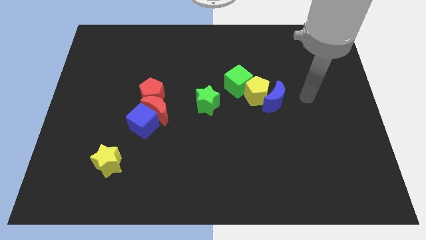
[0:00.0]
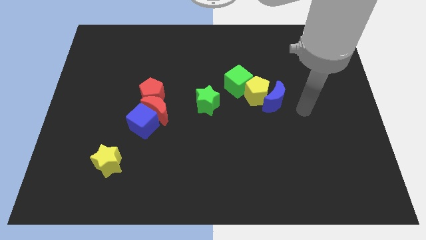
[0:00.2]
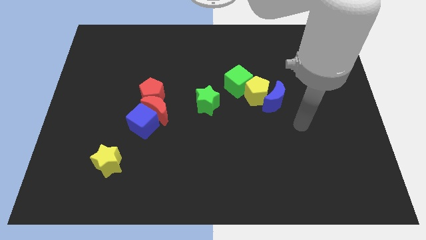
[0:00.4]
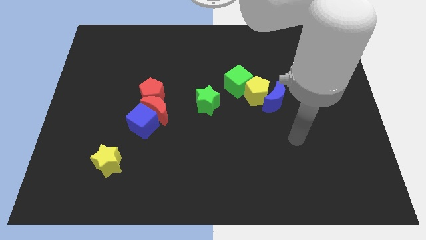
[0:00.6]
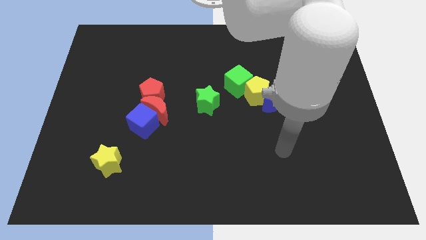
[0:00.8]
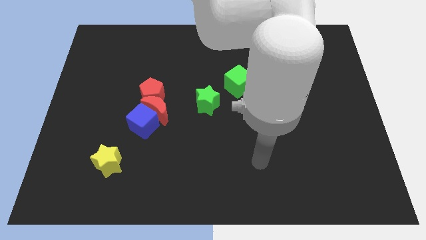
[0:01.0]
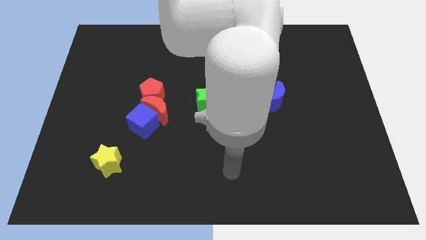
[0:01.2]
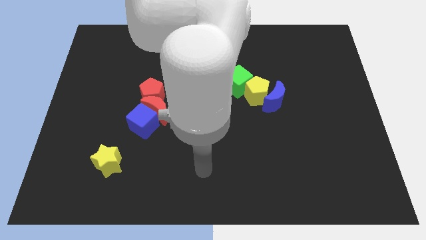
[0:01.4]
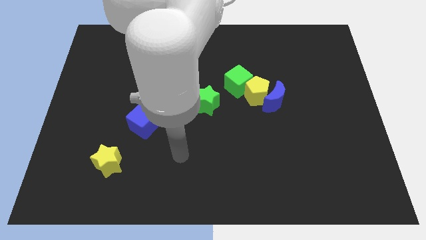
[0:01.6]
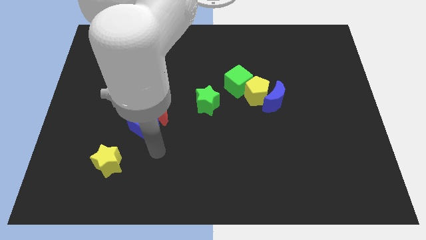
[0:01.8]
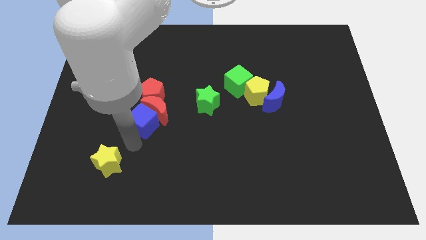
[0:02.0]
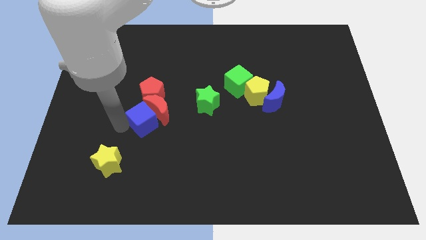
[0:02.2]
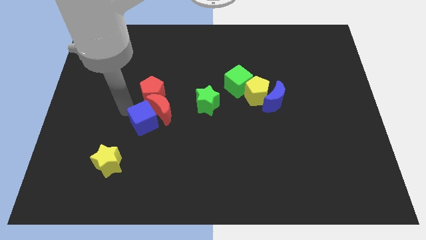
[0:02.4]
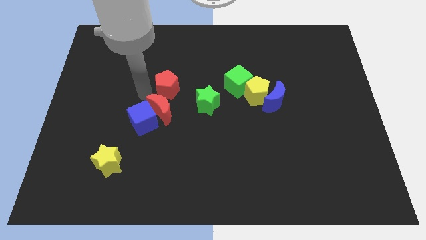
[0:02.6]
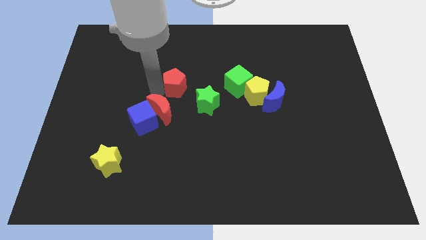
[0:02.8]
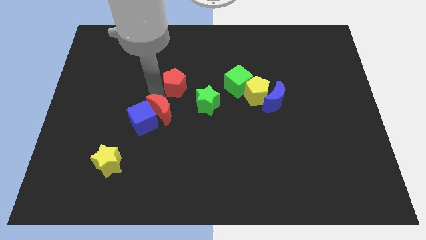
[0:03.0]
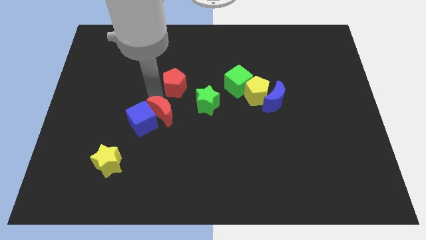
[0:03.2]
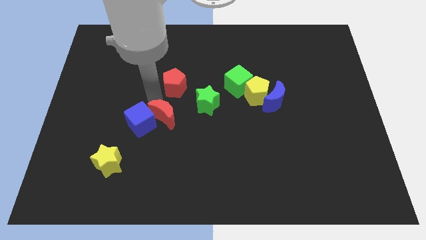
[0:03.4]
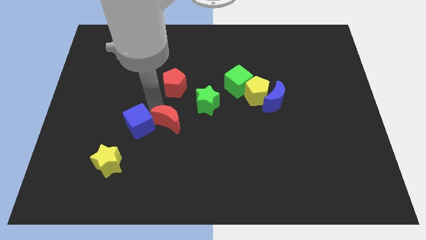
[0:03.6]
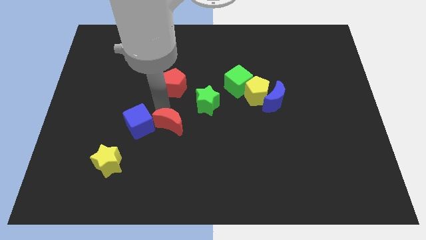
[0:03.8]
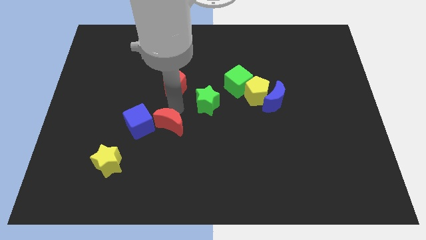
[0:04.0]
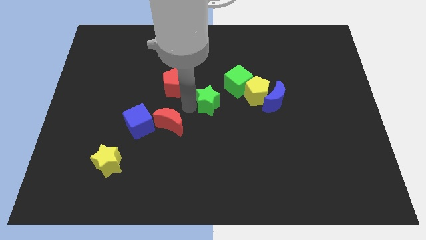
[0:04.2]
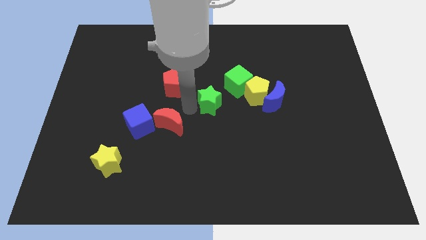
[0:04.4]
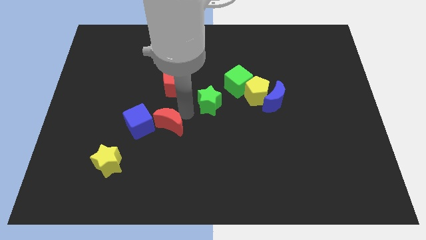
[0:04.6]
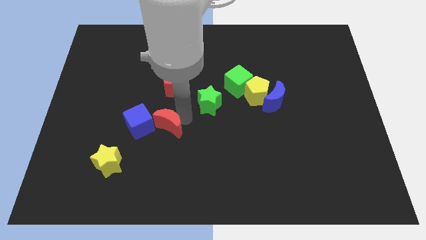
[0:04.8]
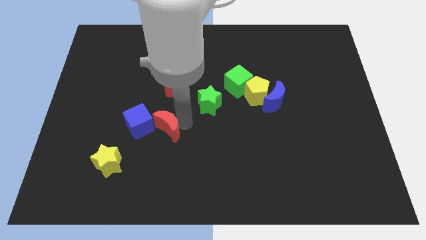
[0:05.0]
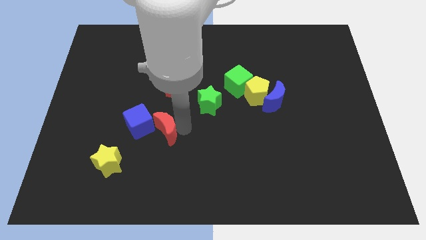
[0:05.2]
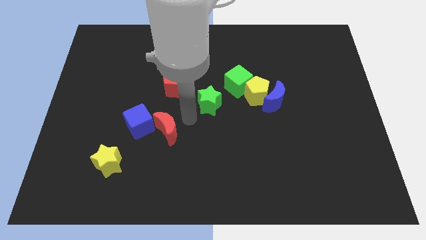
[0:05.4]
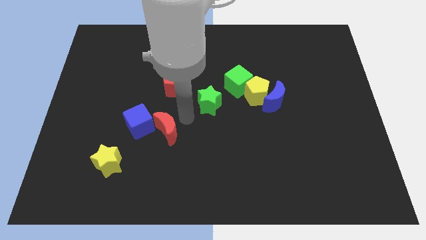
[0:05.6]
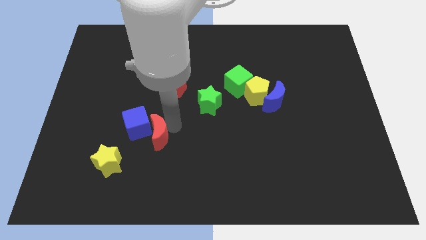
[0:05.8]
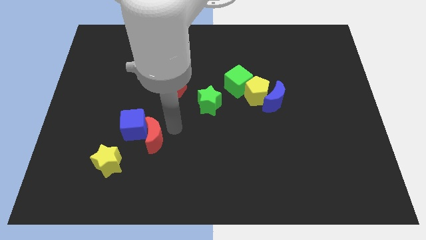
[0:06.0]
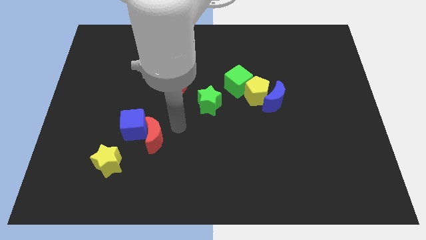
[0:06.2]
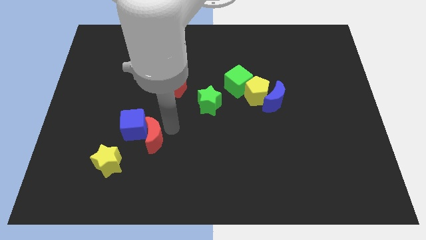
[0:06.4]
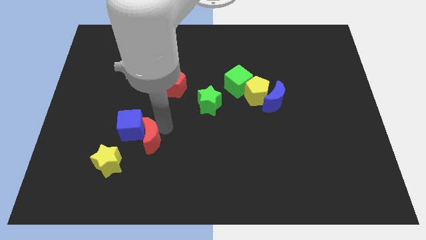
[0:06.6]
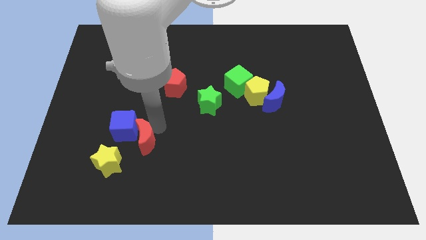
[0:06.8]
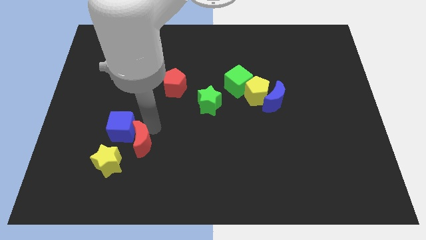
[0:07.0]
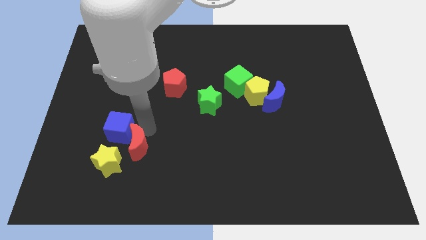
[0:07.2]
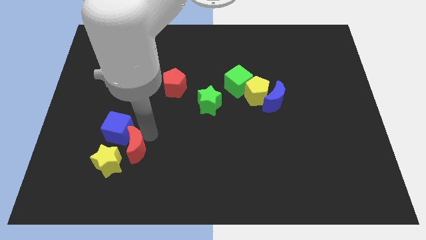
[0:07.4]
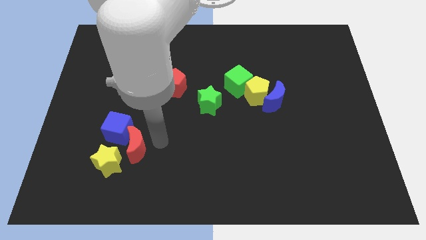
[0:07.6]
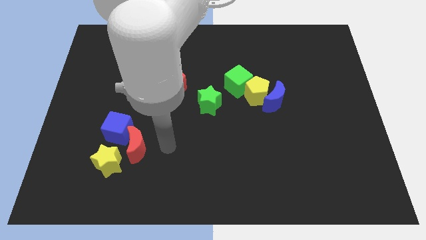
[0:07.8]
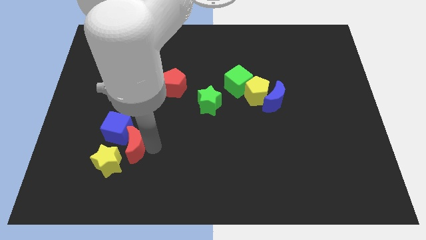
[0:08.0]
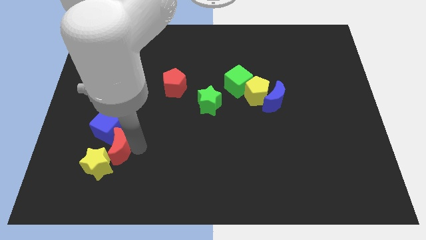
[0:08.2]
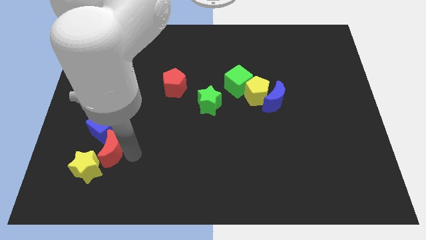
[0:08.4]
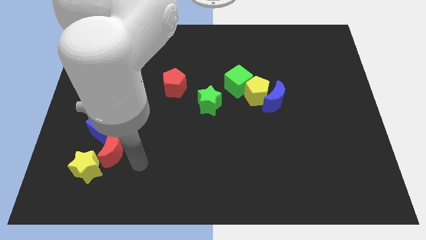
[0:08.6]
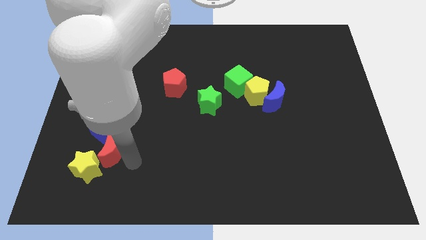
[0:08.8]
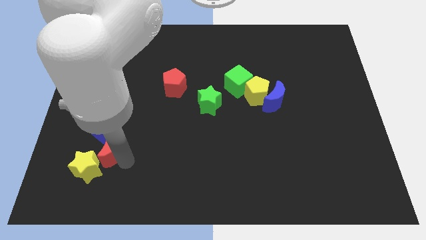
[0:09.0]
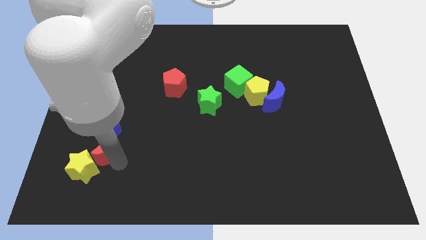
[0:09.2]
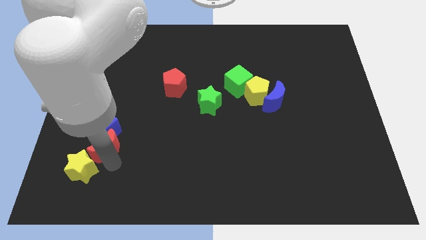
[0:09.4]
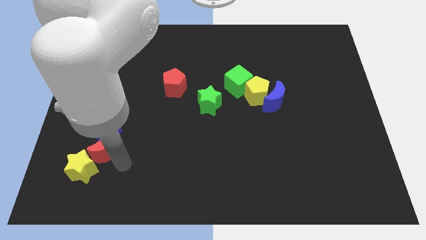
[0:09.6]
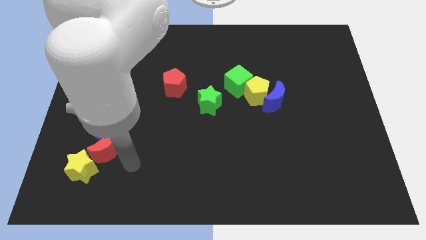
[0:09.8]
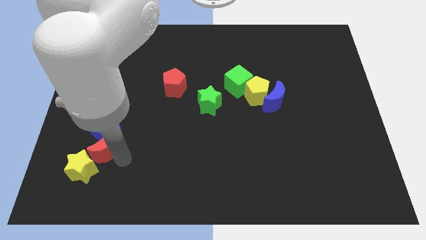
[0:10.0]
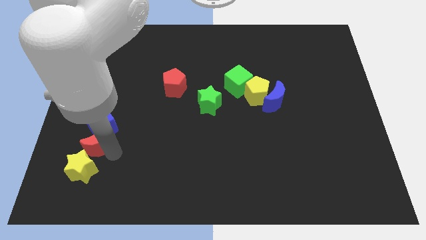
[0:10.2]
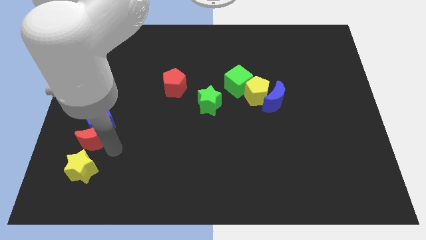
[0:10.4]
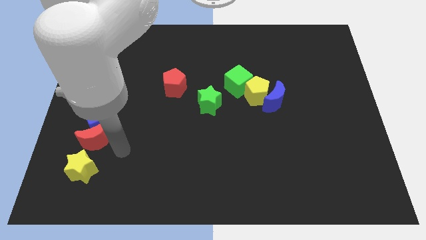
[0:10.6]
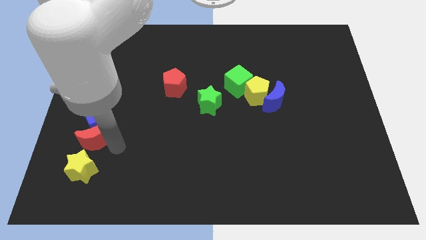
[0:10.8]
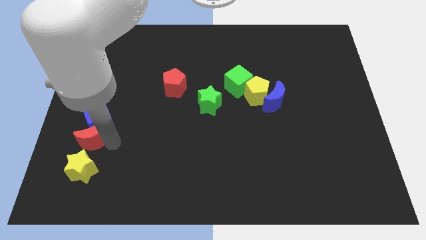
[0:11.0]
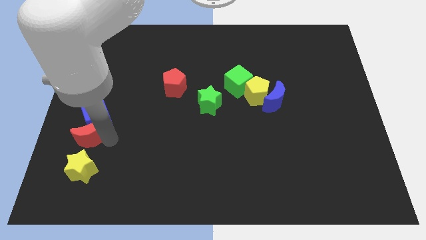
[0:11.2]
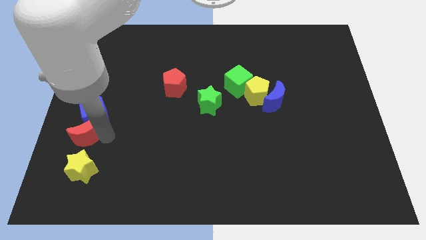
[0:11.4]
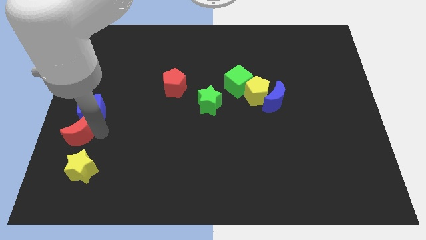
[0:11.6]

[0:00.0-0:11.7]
slide the red moon to the left side
